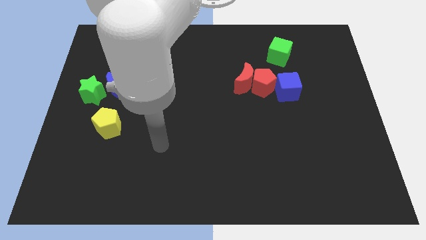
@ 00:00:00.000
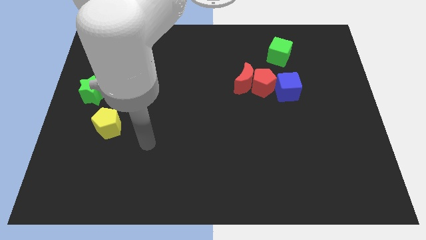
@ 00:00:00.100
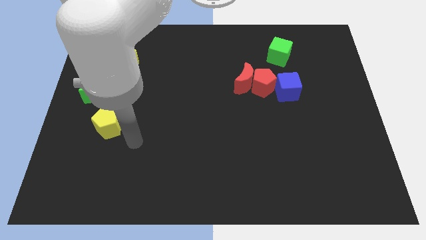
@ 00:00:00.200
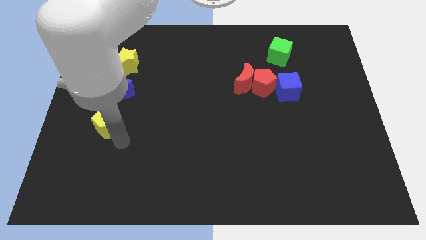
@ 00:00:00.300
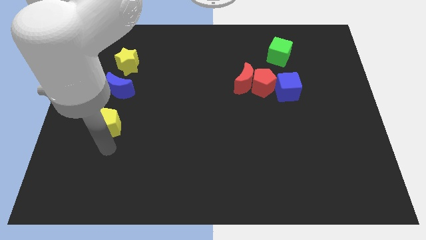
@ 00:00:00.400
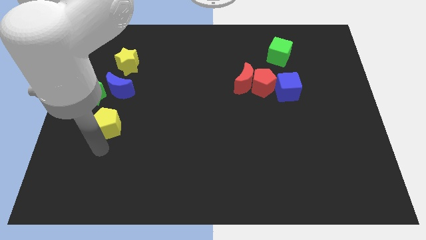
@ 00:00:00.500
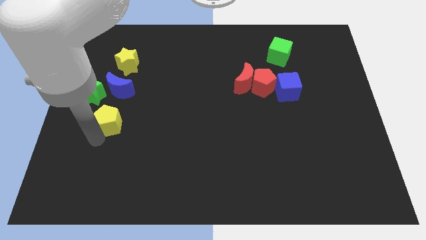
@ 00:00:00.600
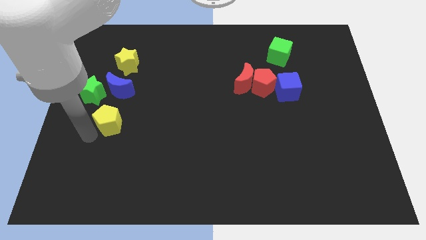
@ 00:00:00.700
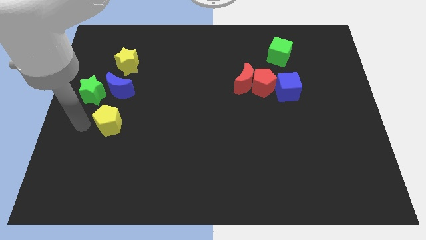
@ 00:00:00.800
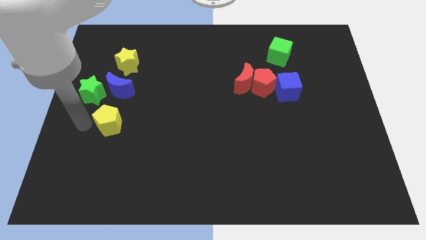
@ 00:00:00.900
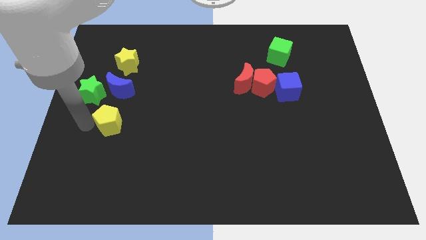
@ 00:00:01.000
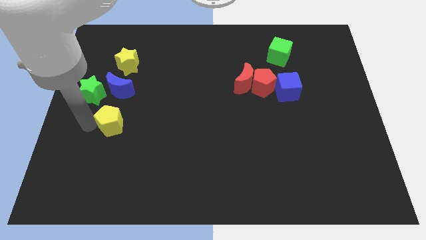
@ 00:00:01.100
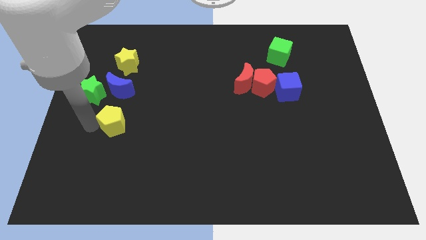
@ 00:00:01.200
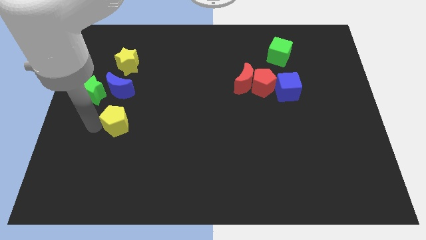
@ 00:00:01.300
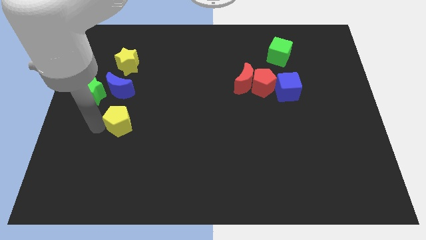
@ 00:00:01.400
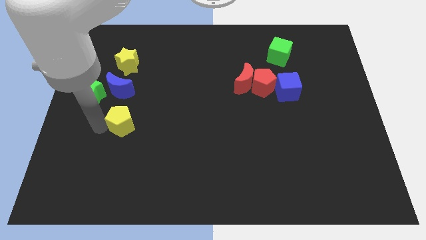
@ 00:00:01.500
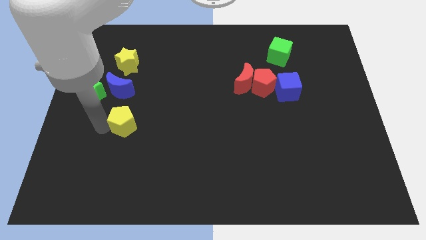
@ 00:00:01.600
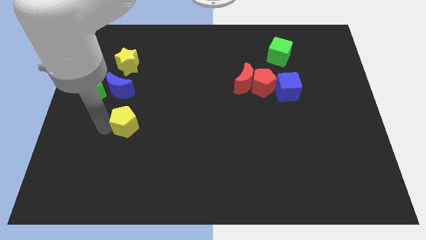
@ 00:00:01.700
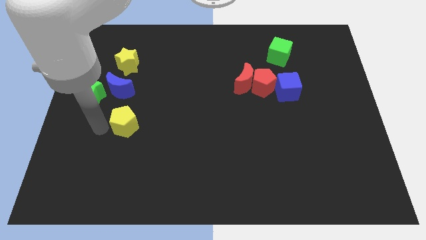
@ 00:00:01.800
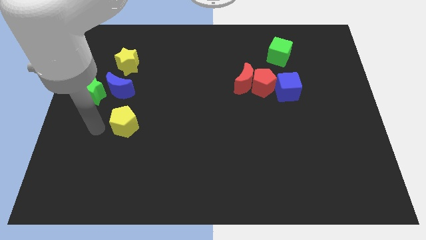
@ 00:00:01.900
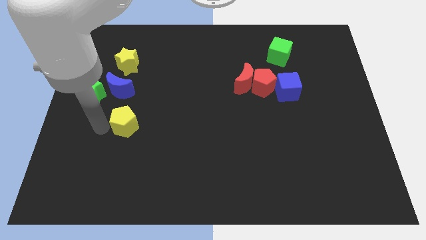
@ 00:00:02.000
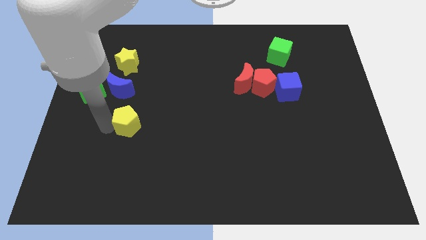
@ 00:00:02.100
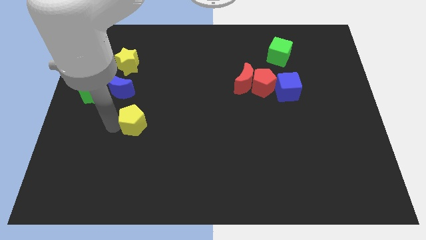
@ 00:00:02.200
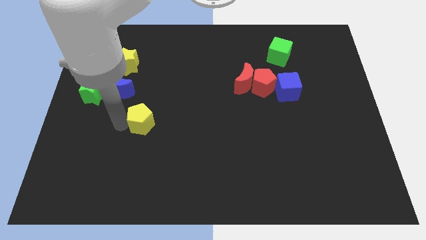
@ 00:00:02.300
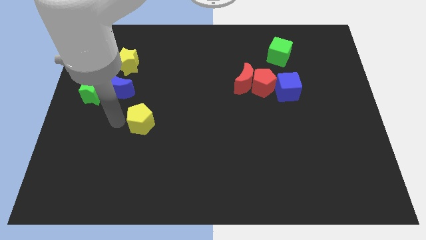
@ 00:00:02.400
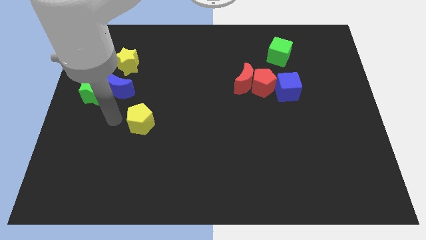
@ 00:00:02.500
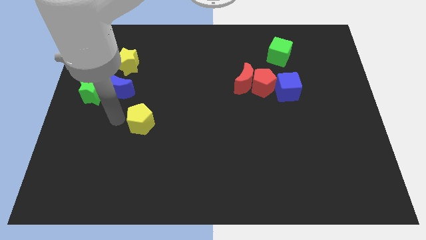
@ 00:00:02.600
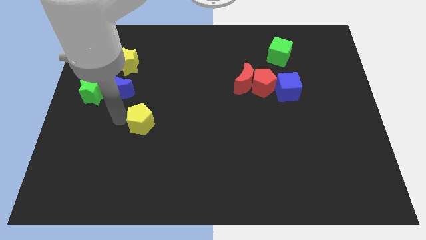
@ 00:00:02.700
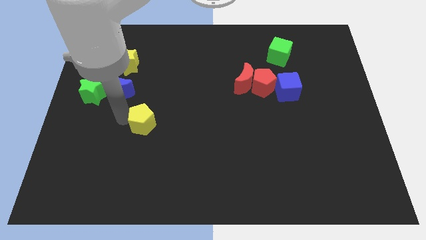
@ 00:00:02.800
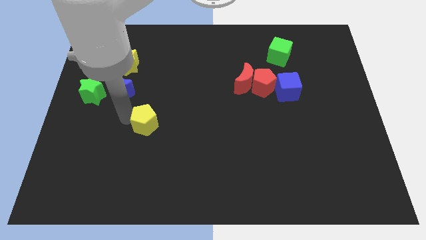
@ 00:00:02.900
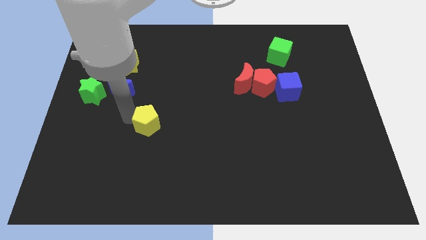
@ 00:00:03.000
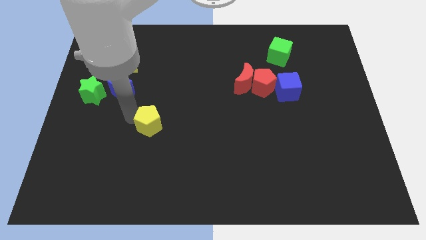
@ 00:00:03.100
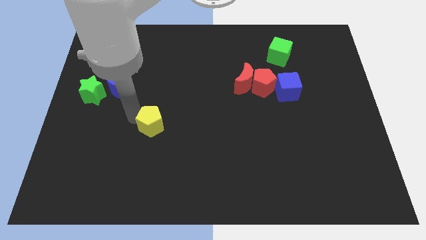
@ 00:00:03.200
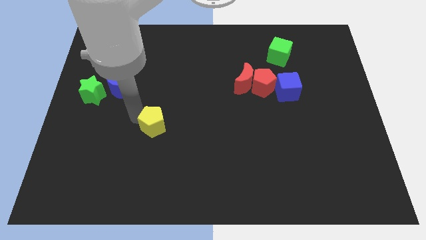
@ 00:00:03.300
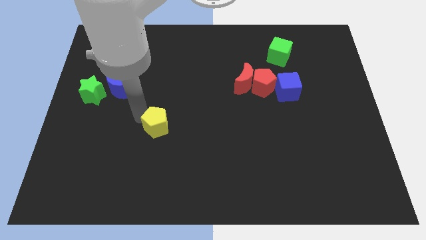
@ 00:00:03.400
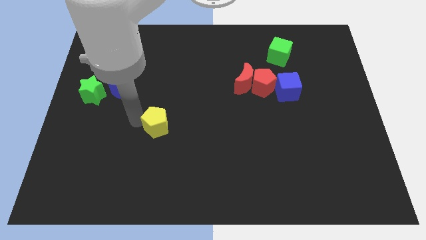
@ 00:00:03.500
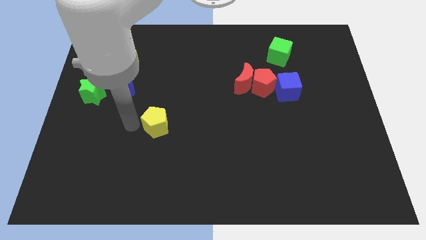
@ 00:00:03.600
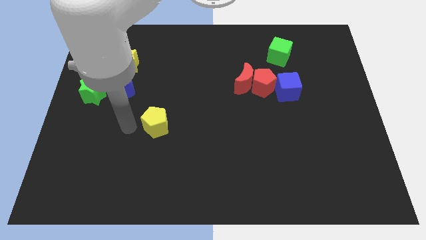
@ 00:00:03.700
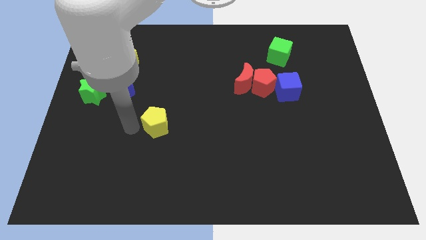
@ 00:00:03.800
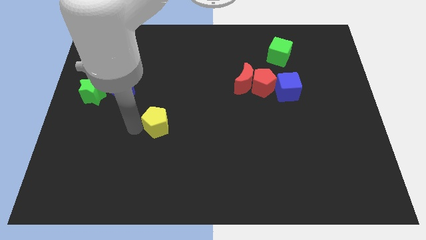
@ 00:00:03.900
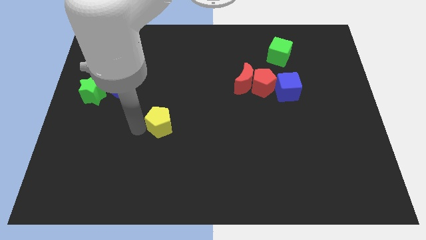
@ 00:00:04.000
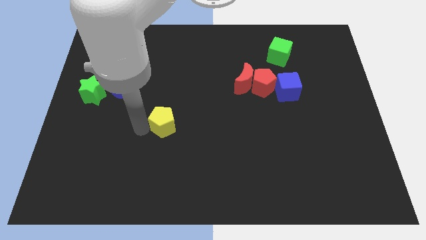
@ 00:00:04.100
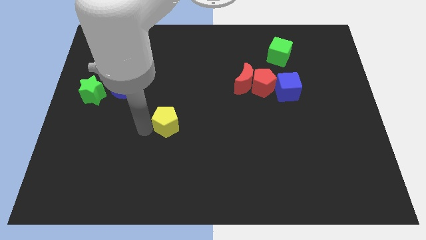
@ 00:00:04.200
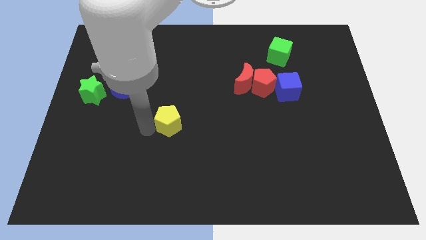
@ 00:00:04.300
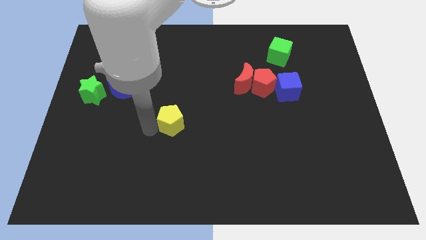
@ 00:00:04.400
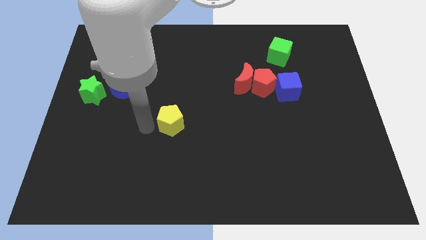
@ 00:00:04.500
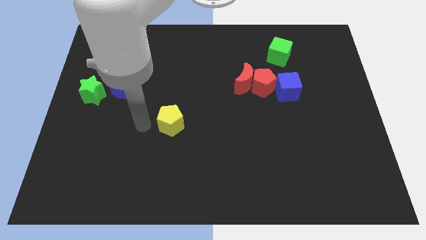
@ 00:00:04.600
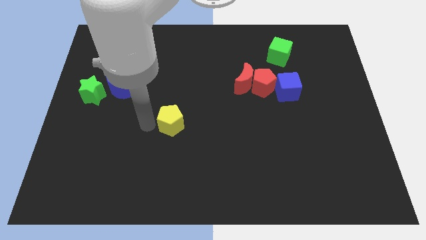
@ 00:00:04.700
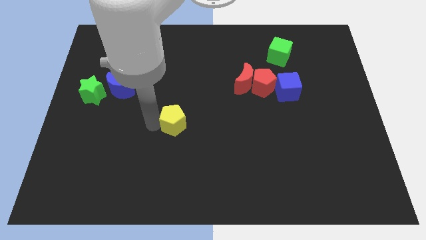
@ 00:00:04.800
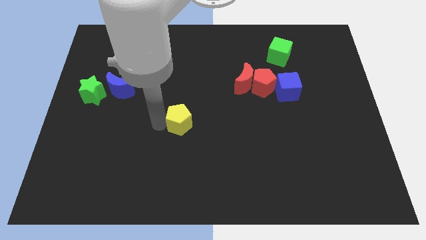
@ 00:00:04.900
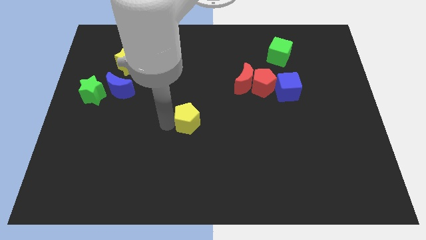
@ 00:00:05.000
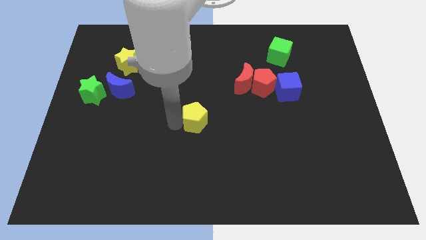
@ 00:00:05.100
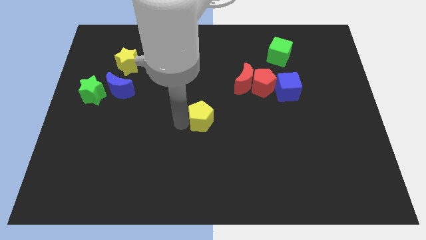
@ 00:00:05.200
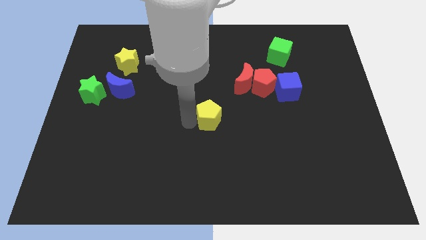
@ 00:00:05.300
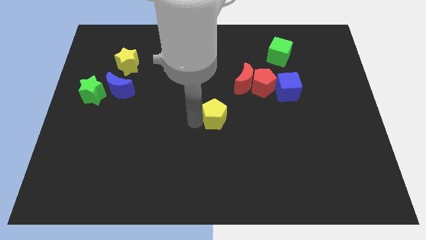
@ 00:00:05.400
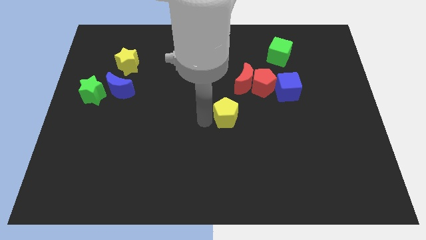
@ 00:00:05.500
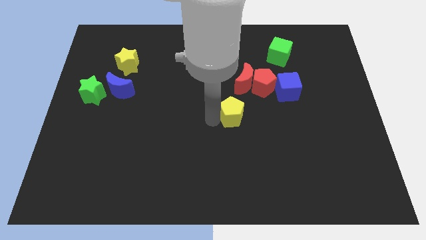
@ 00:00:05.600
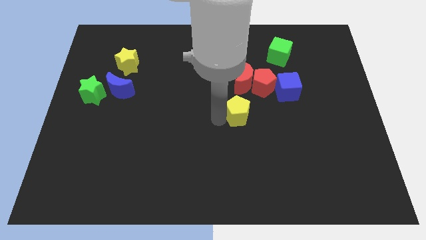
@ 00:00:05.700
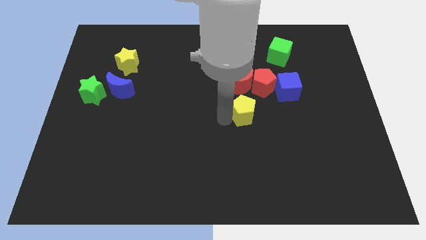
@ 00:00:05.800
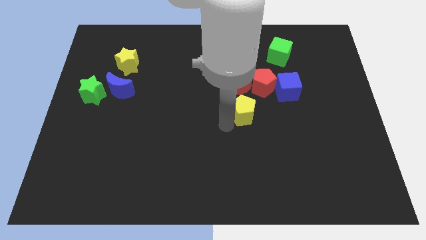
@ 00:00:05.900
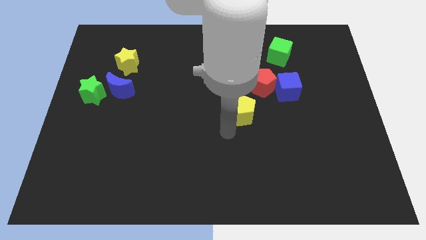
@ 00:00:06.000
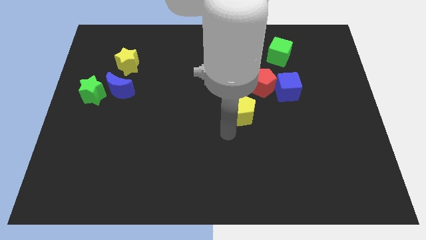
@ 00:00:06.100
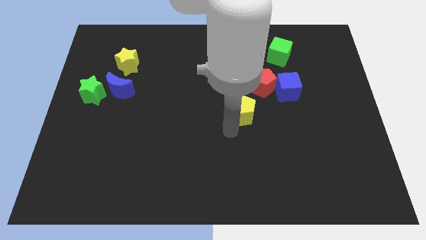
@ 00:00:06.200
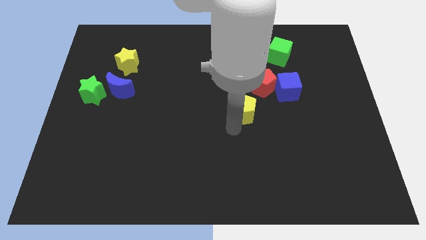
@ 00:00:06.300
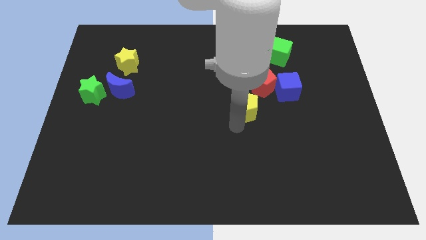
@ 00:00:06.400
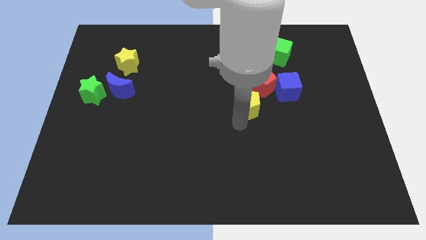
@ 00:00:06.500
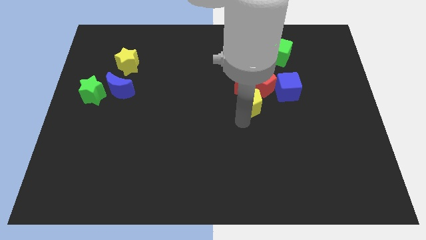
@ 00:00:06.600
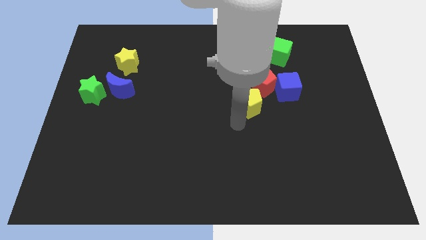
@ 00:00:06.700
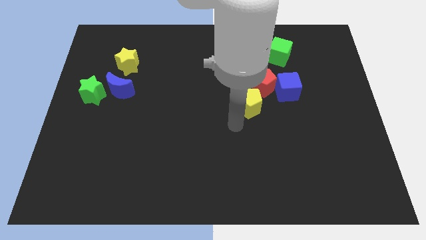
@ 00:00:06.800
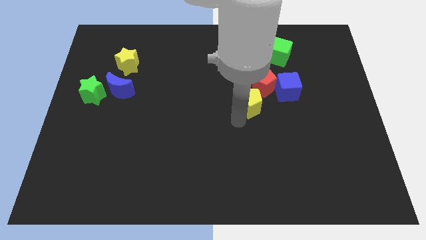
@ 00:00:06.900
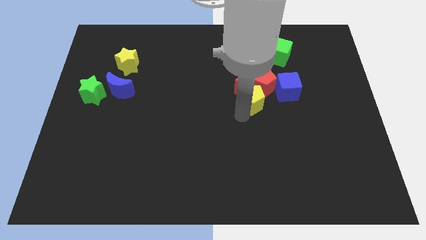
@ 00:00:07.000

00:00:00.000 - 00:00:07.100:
push the yellow pentagon to the red pentagon

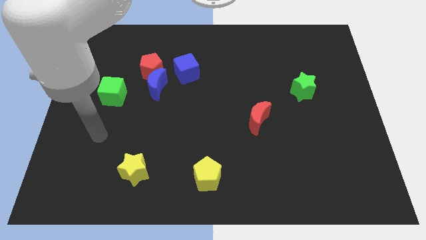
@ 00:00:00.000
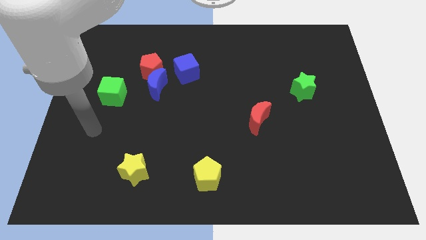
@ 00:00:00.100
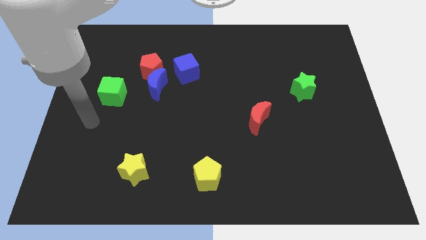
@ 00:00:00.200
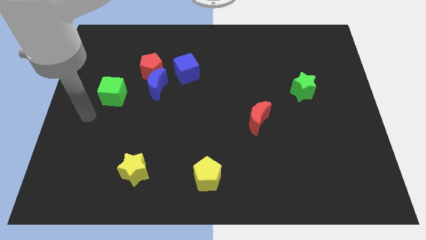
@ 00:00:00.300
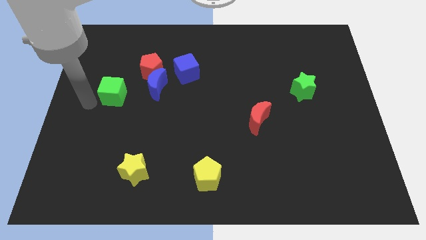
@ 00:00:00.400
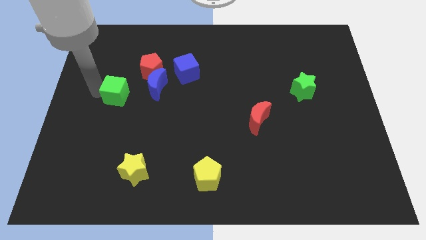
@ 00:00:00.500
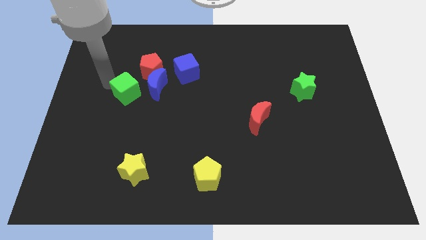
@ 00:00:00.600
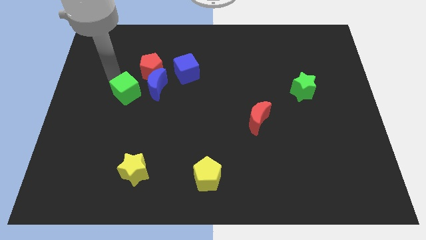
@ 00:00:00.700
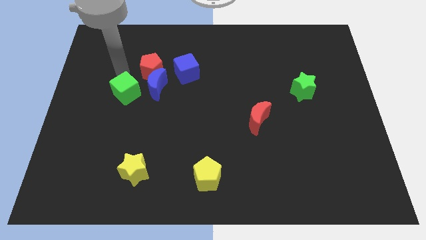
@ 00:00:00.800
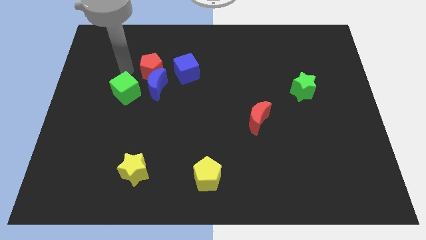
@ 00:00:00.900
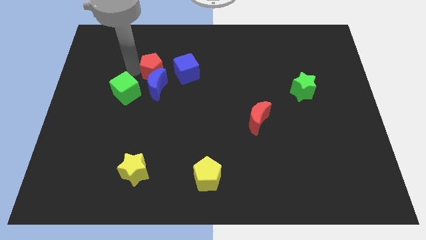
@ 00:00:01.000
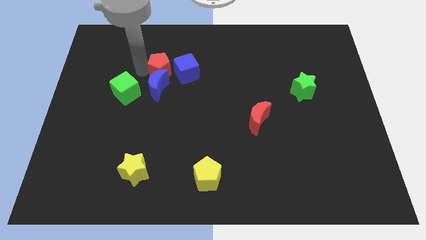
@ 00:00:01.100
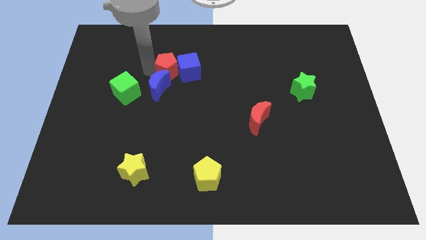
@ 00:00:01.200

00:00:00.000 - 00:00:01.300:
put the red pentagon to the blue cube
